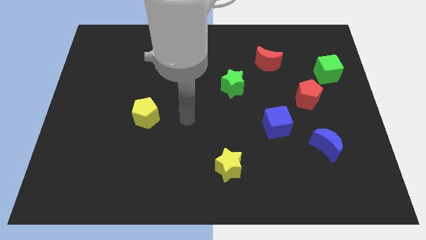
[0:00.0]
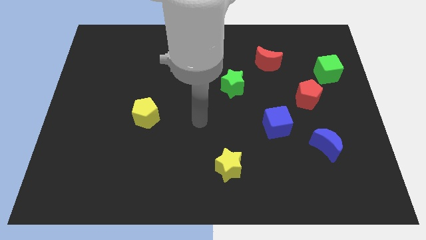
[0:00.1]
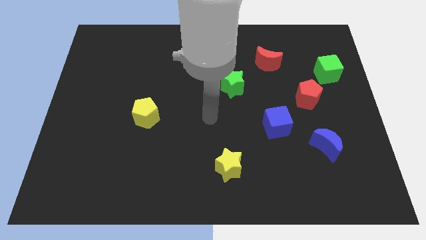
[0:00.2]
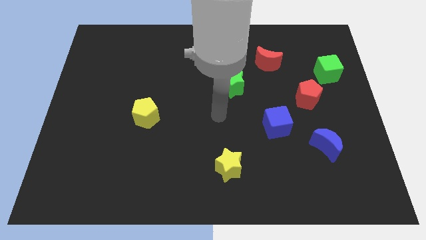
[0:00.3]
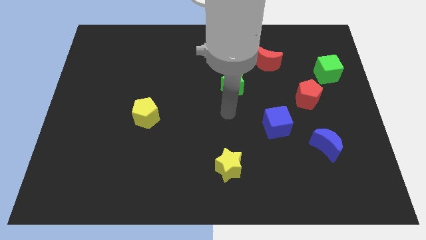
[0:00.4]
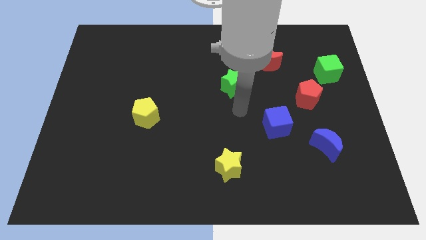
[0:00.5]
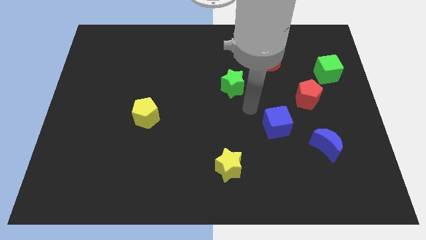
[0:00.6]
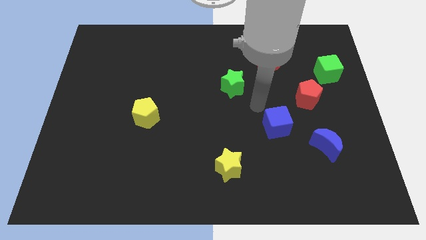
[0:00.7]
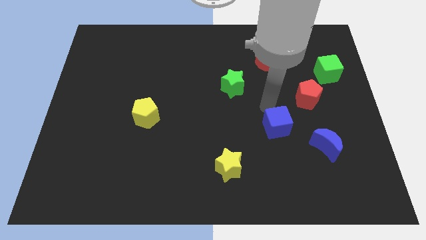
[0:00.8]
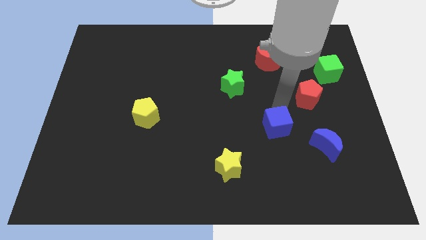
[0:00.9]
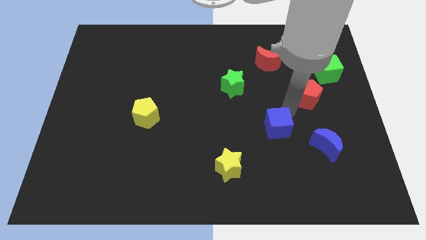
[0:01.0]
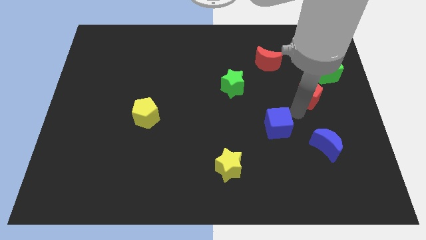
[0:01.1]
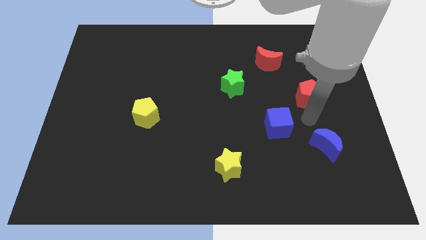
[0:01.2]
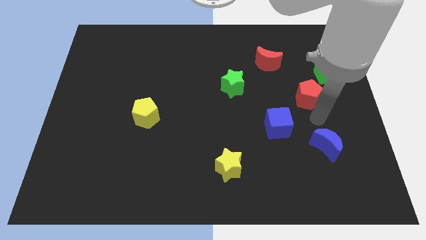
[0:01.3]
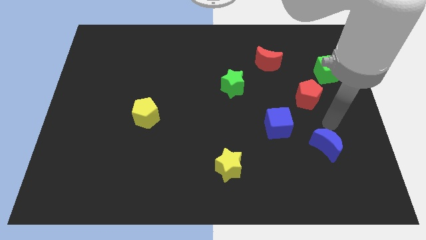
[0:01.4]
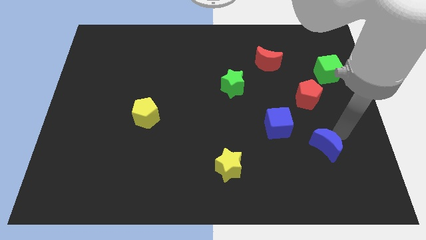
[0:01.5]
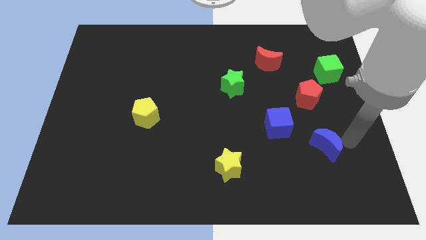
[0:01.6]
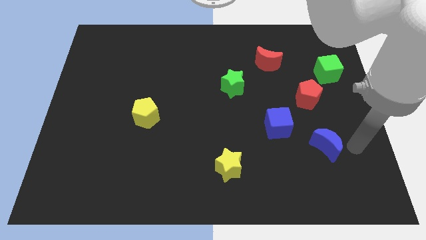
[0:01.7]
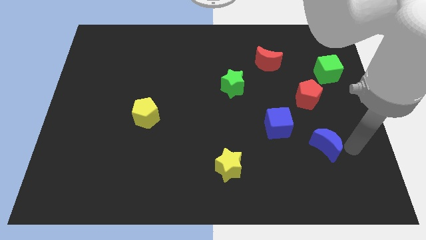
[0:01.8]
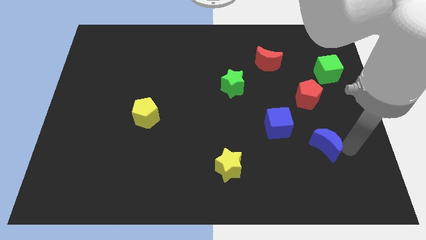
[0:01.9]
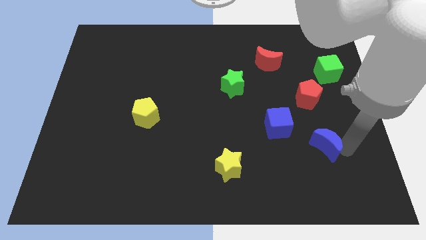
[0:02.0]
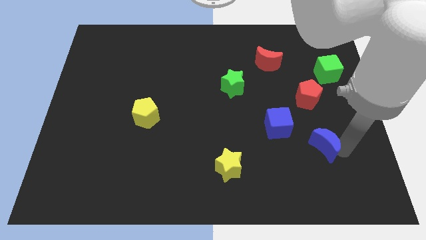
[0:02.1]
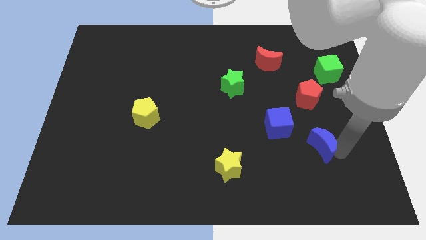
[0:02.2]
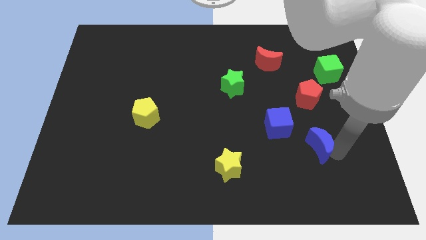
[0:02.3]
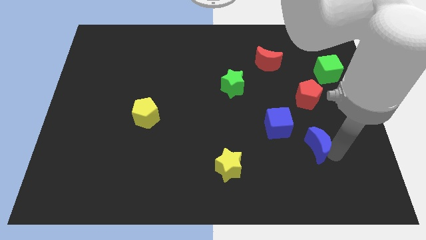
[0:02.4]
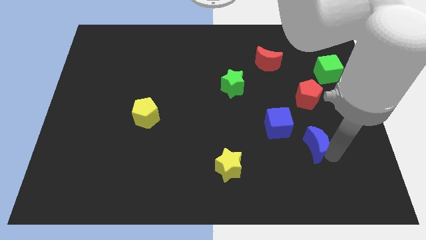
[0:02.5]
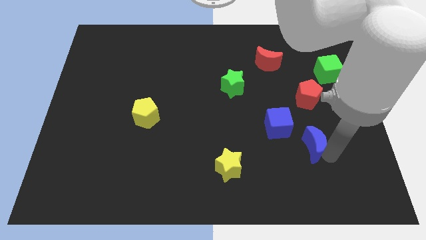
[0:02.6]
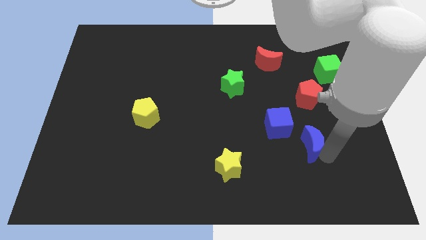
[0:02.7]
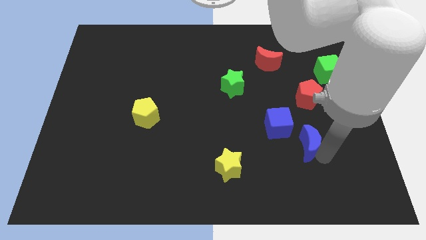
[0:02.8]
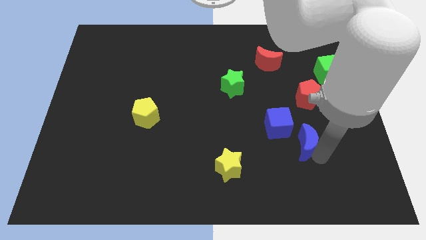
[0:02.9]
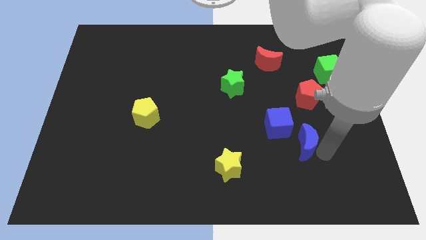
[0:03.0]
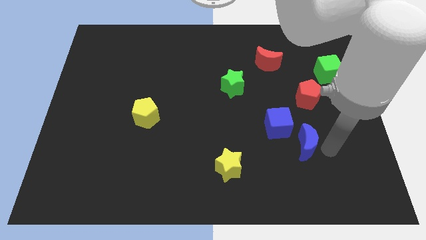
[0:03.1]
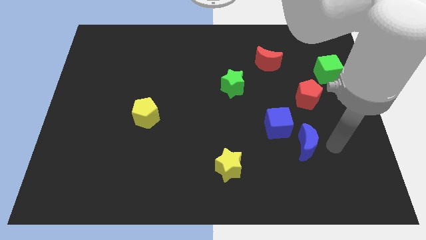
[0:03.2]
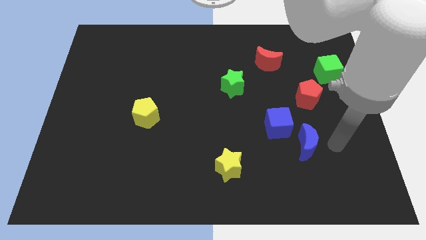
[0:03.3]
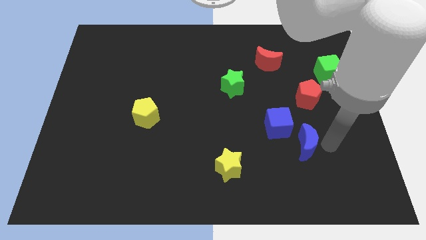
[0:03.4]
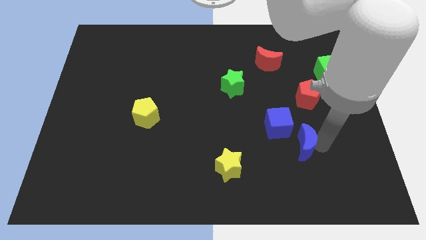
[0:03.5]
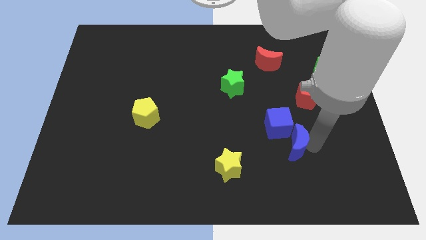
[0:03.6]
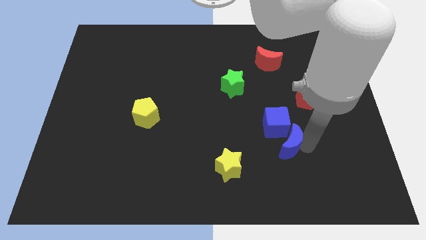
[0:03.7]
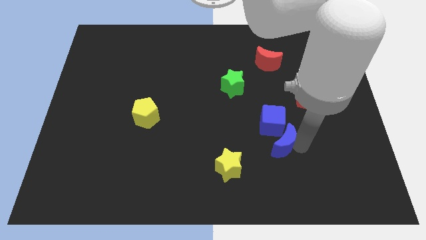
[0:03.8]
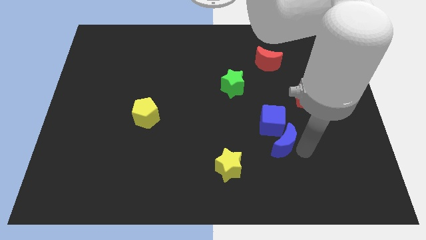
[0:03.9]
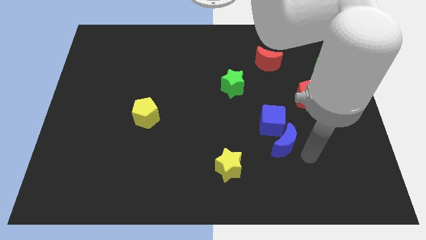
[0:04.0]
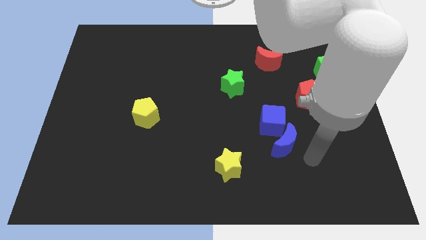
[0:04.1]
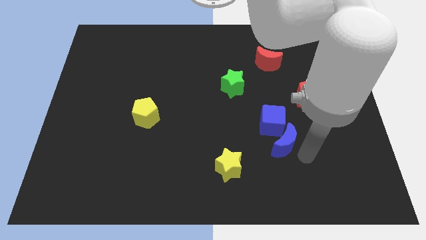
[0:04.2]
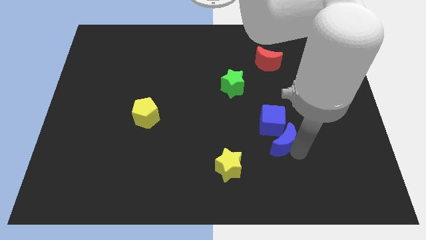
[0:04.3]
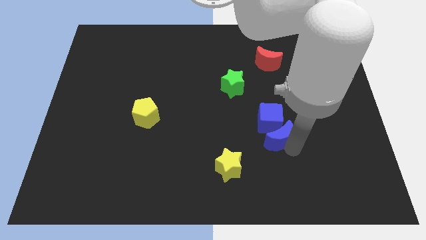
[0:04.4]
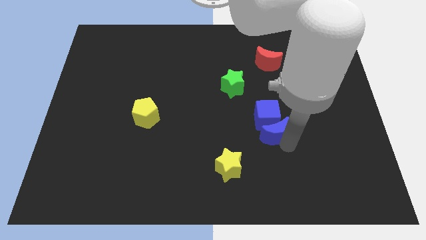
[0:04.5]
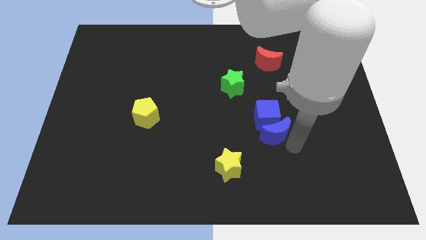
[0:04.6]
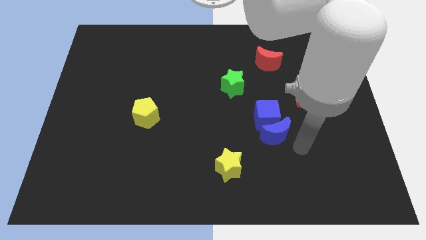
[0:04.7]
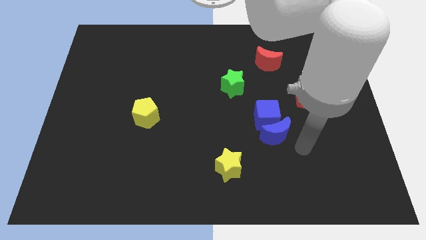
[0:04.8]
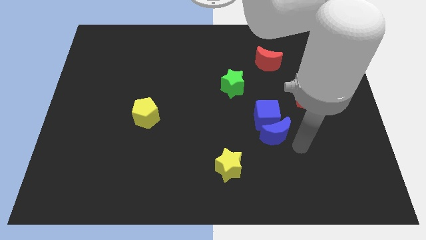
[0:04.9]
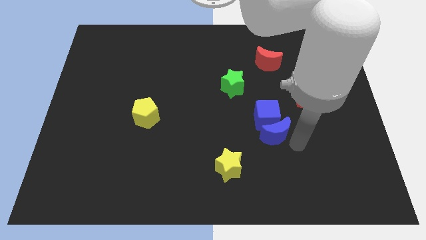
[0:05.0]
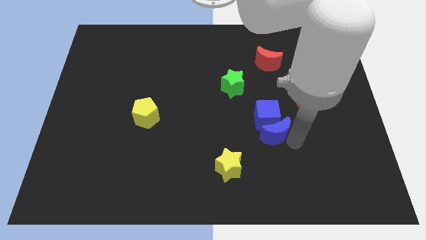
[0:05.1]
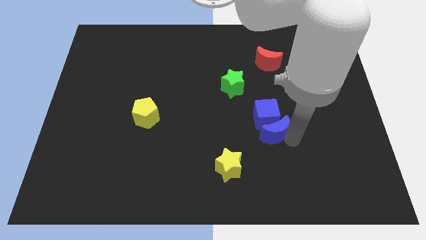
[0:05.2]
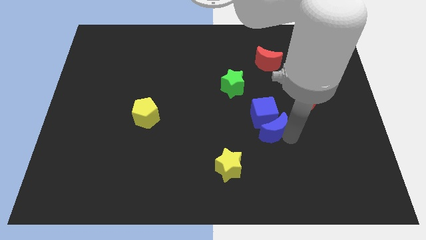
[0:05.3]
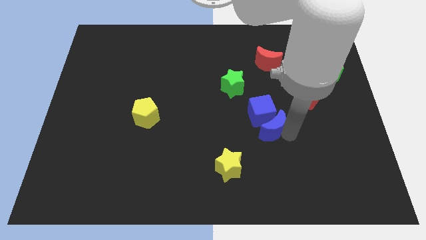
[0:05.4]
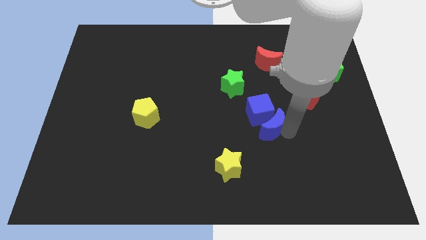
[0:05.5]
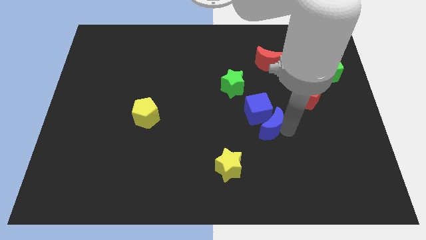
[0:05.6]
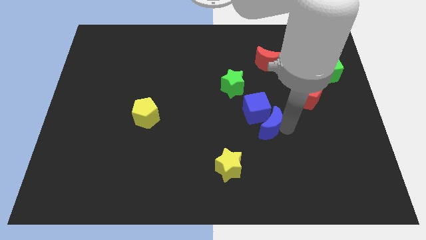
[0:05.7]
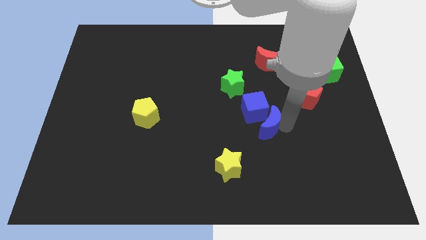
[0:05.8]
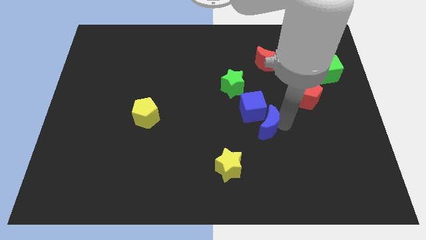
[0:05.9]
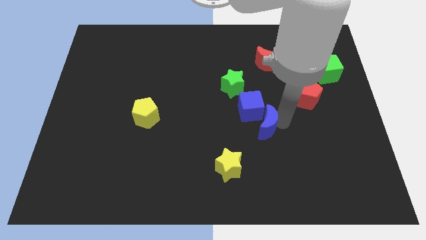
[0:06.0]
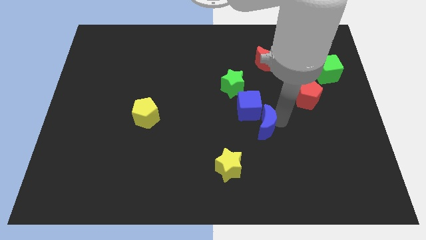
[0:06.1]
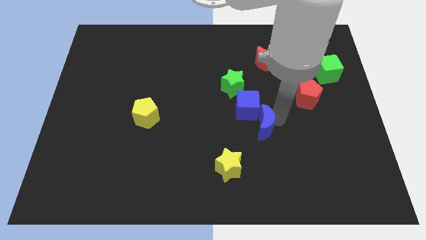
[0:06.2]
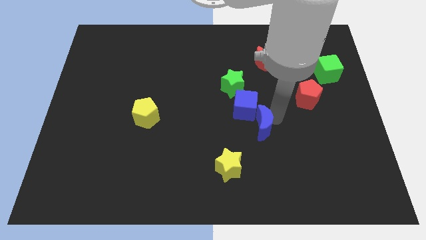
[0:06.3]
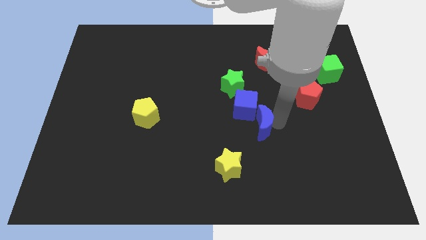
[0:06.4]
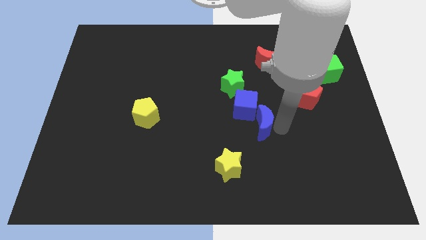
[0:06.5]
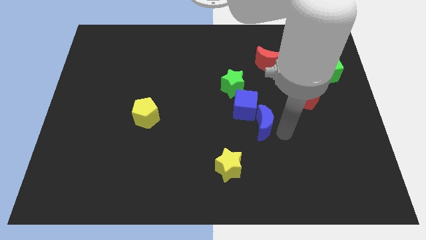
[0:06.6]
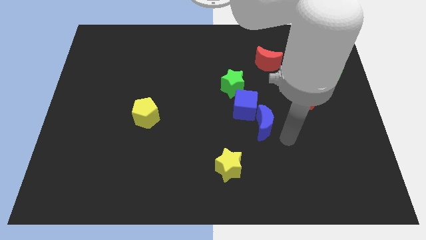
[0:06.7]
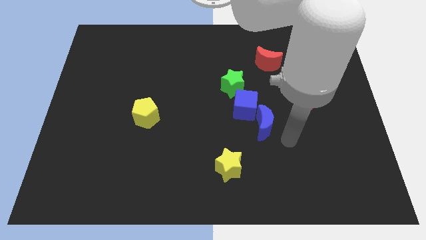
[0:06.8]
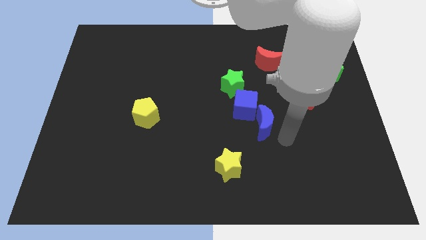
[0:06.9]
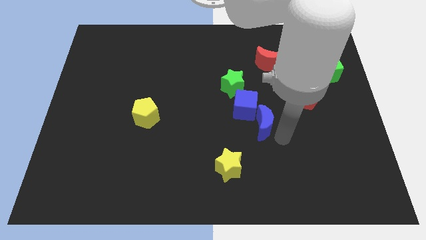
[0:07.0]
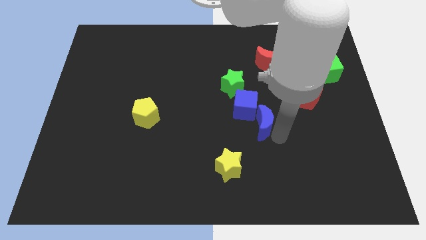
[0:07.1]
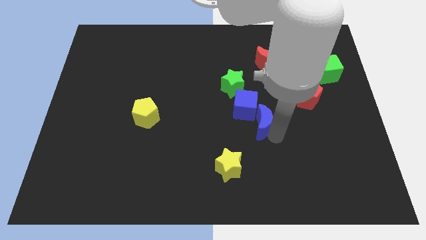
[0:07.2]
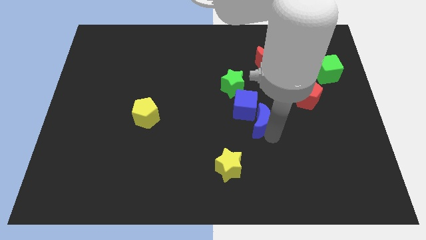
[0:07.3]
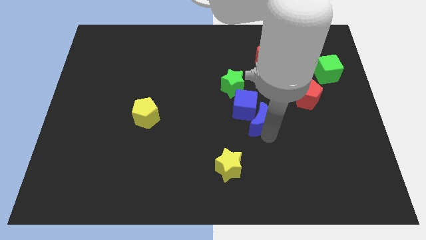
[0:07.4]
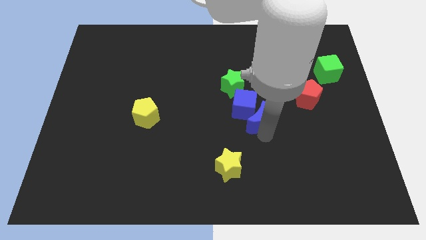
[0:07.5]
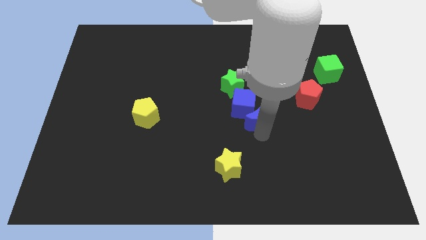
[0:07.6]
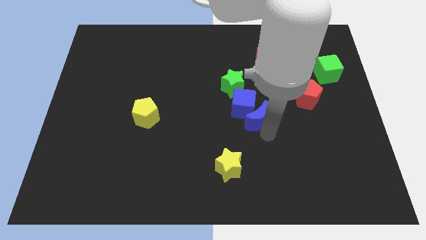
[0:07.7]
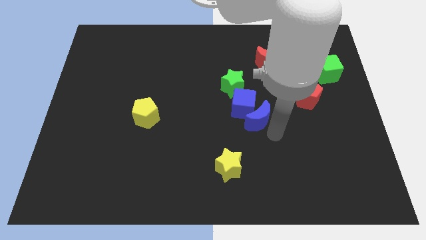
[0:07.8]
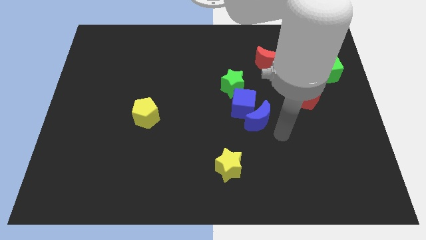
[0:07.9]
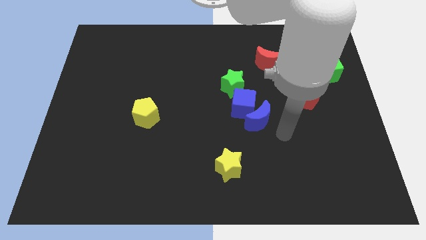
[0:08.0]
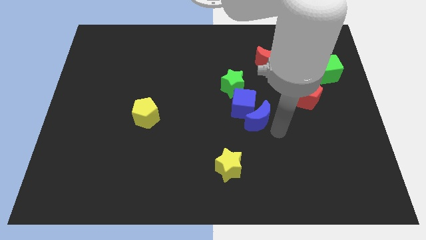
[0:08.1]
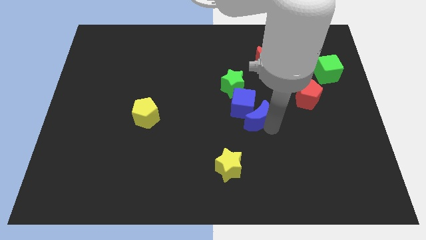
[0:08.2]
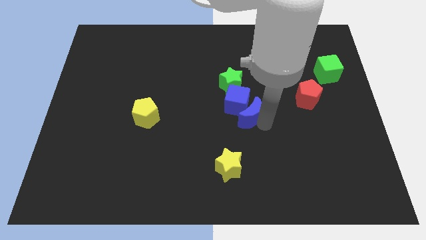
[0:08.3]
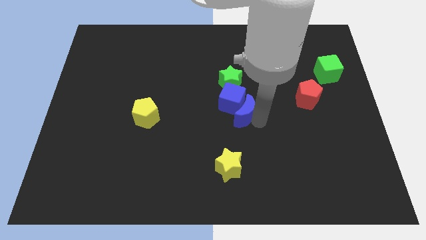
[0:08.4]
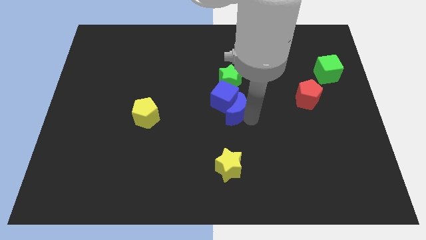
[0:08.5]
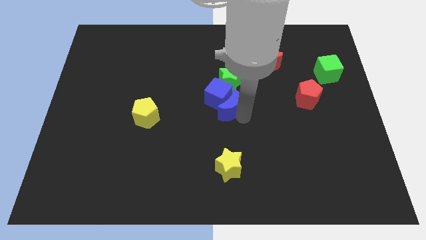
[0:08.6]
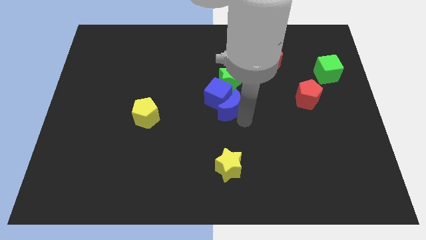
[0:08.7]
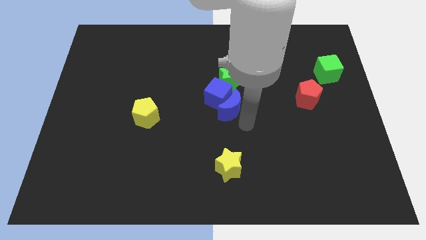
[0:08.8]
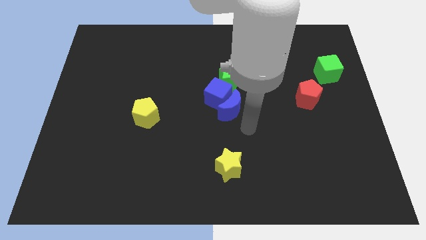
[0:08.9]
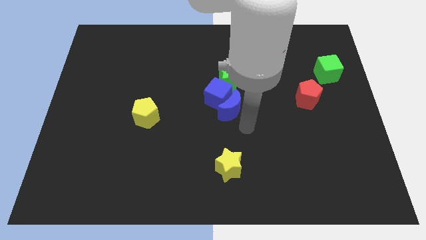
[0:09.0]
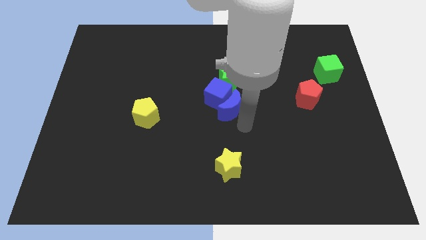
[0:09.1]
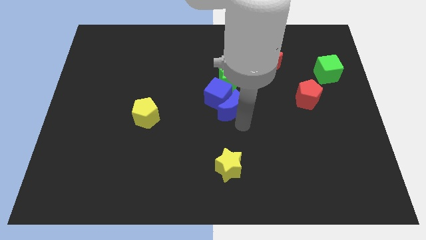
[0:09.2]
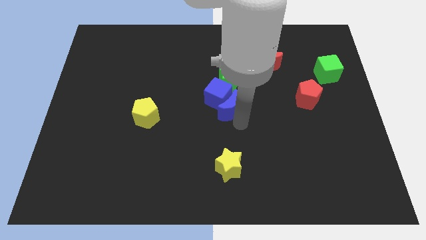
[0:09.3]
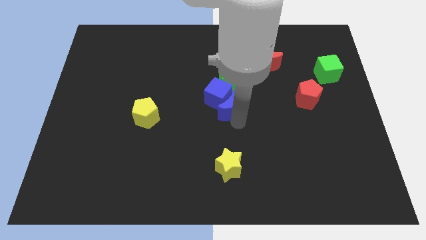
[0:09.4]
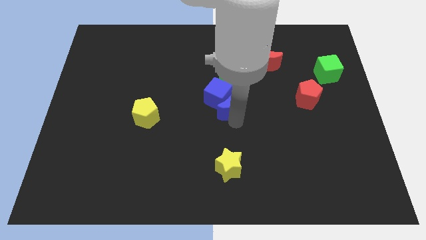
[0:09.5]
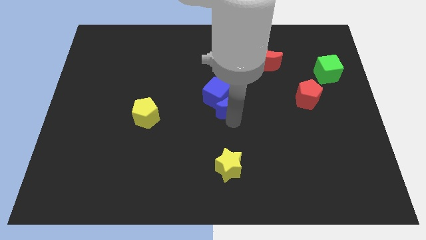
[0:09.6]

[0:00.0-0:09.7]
slide the blue moon diagonally up and to the left
